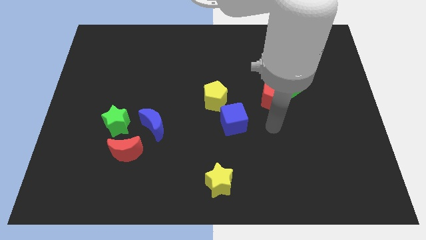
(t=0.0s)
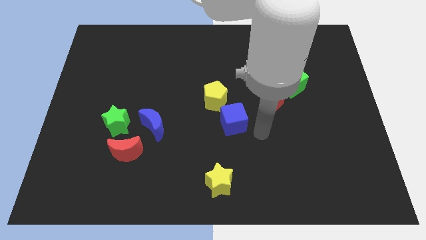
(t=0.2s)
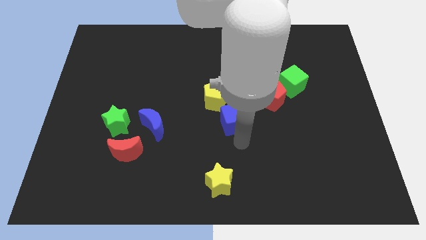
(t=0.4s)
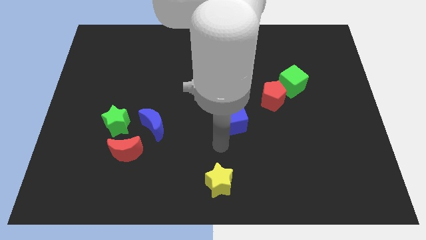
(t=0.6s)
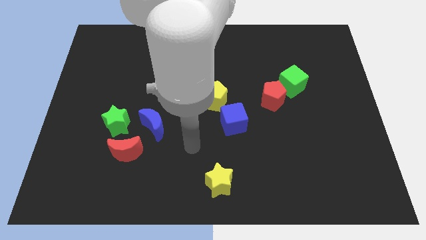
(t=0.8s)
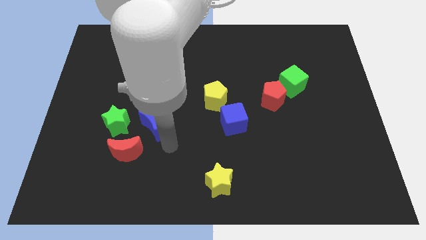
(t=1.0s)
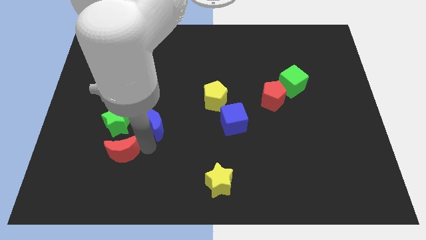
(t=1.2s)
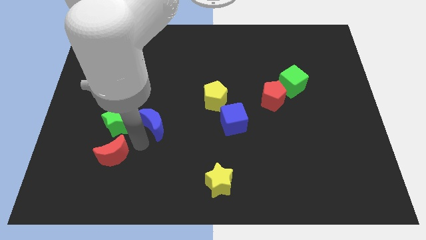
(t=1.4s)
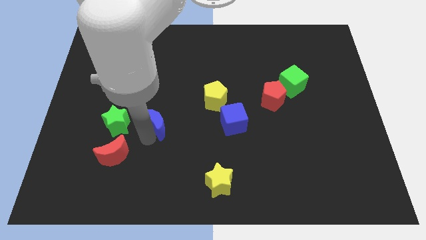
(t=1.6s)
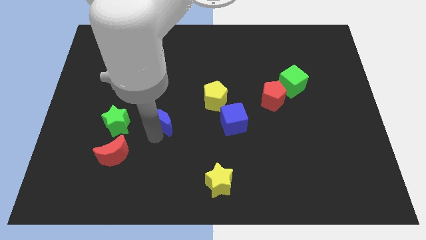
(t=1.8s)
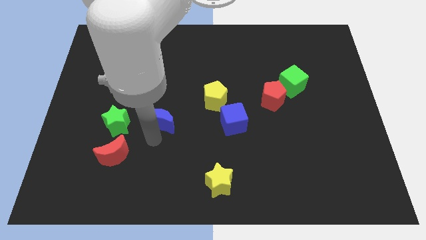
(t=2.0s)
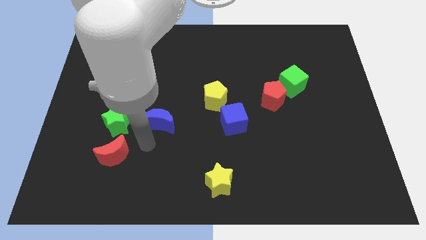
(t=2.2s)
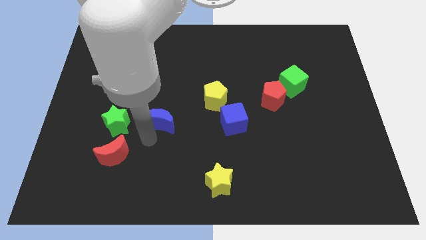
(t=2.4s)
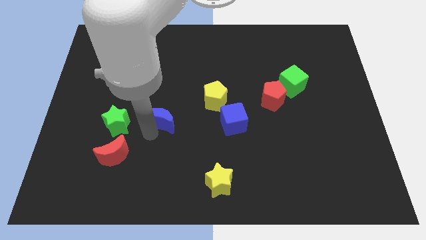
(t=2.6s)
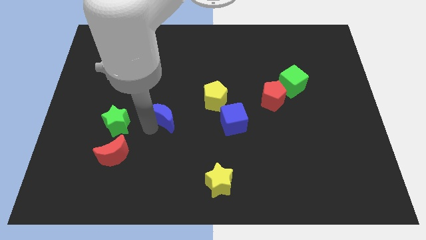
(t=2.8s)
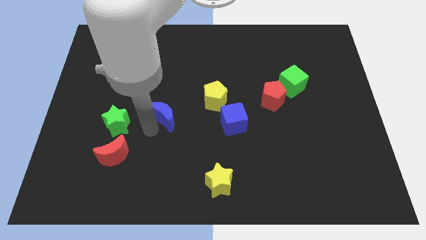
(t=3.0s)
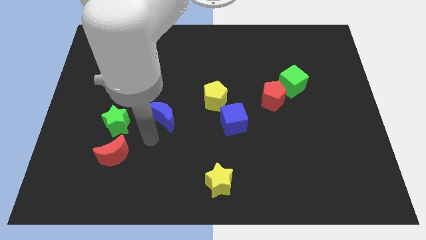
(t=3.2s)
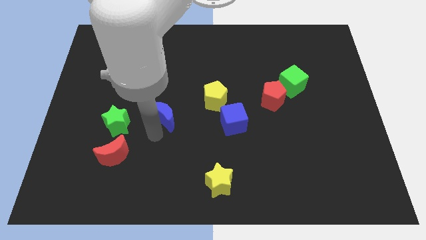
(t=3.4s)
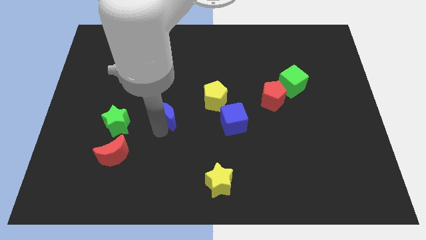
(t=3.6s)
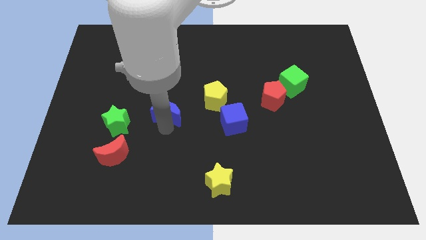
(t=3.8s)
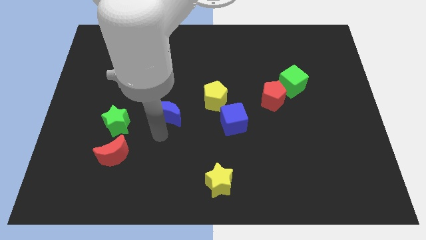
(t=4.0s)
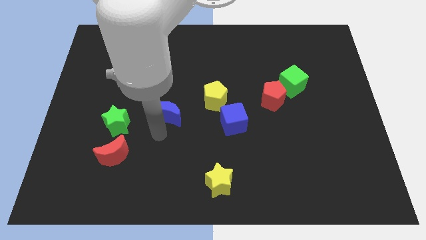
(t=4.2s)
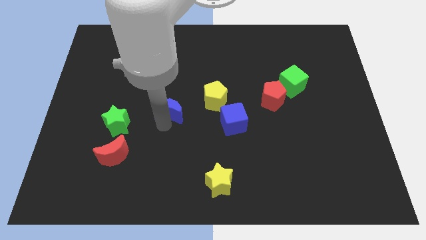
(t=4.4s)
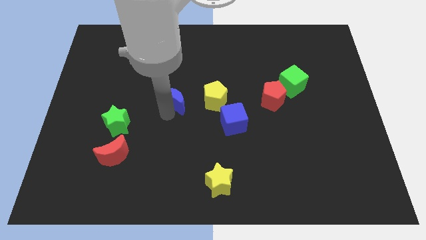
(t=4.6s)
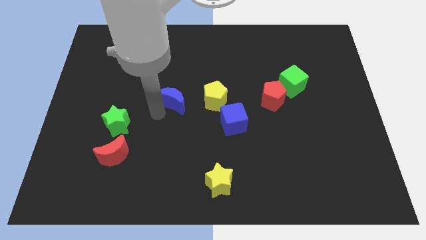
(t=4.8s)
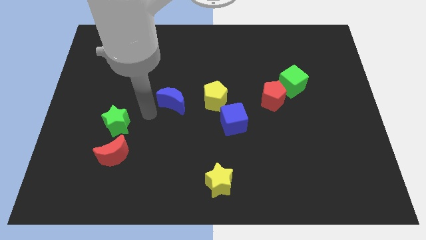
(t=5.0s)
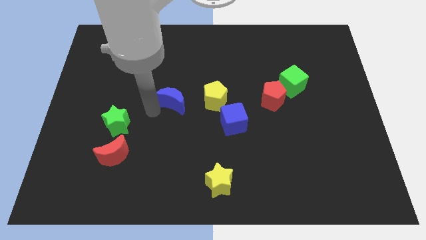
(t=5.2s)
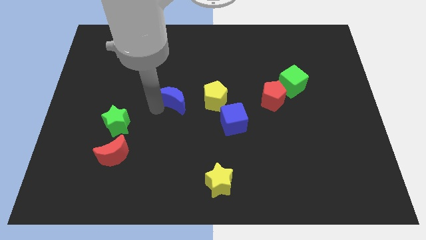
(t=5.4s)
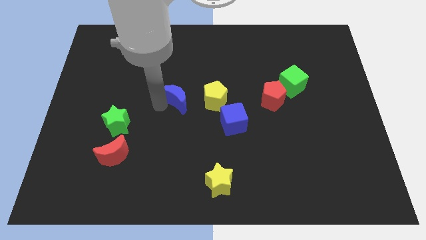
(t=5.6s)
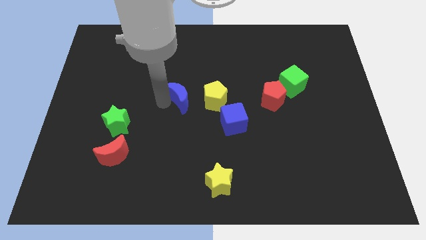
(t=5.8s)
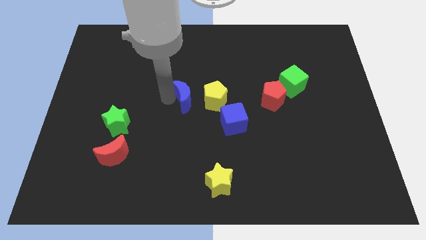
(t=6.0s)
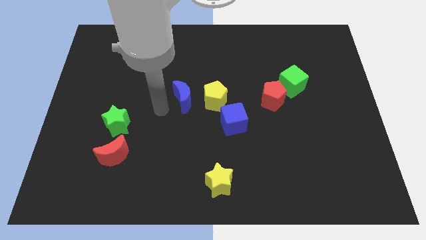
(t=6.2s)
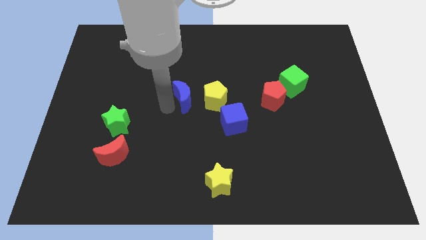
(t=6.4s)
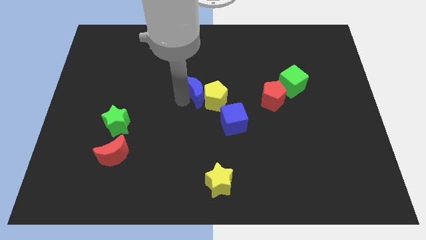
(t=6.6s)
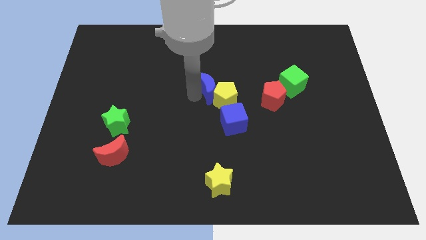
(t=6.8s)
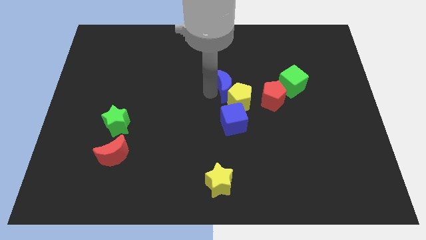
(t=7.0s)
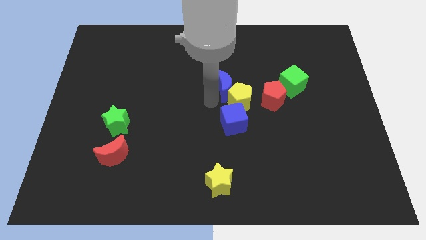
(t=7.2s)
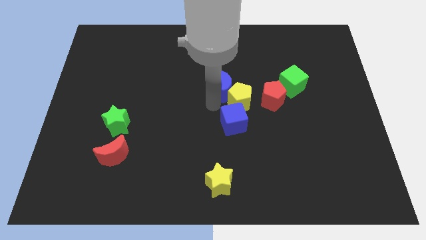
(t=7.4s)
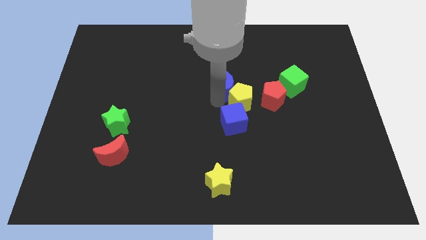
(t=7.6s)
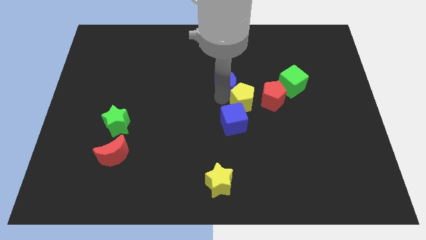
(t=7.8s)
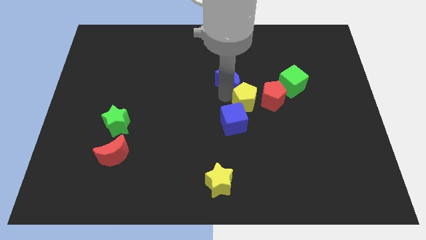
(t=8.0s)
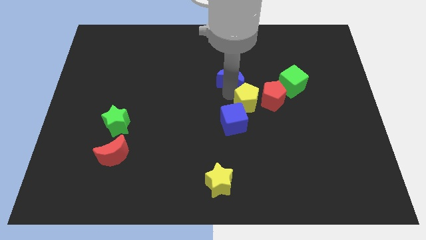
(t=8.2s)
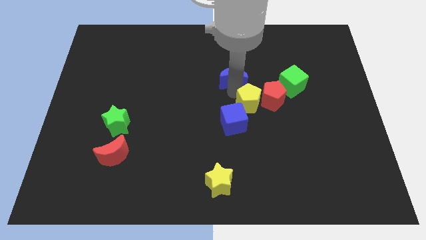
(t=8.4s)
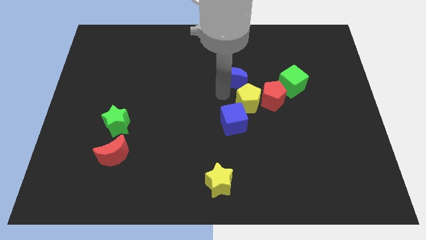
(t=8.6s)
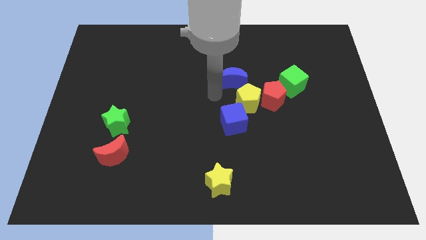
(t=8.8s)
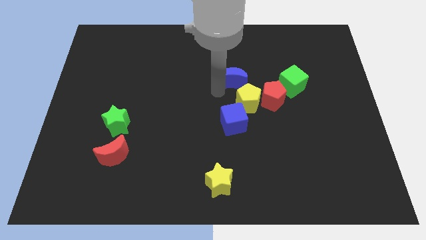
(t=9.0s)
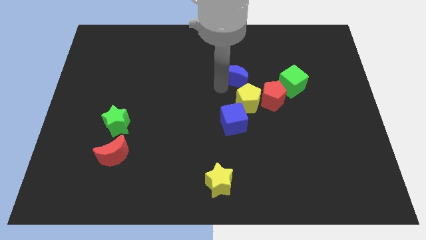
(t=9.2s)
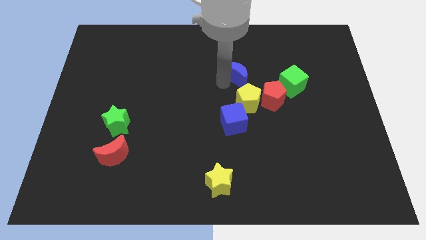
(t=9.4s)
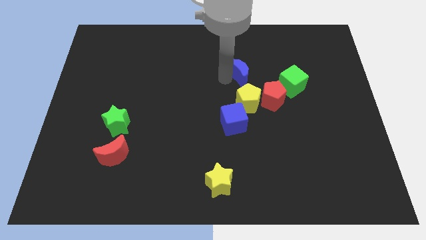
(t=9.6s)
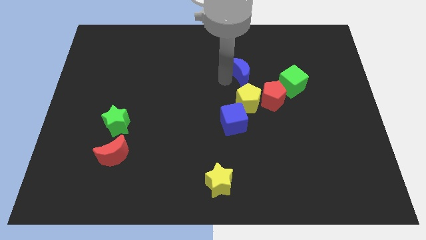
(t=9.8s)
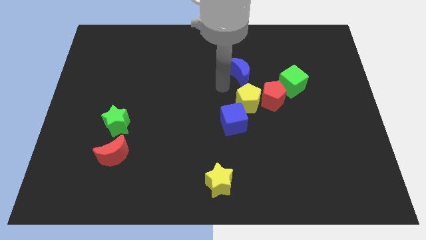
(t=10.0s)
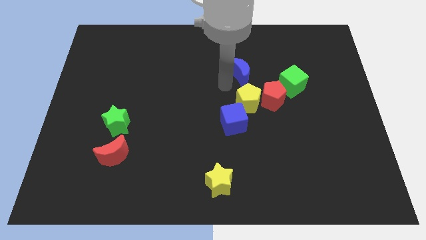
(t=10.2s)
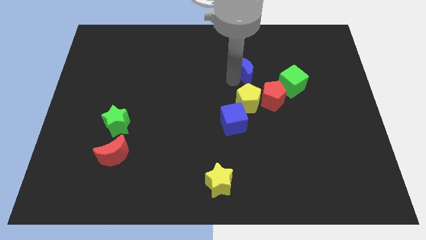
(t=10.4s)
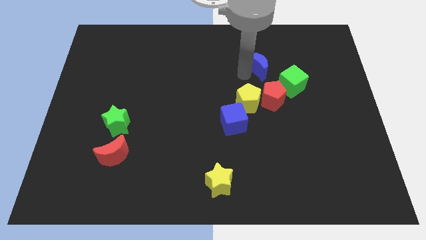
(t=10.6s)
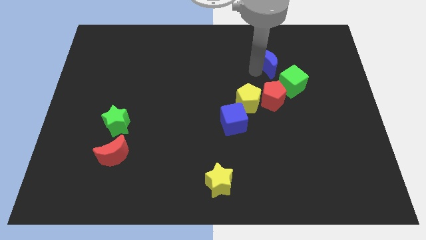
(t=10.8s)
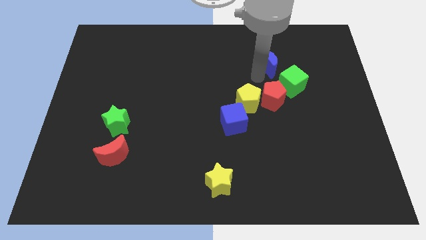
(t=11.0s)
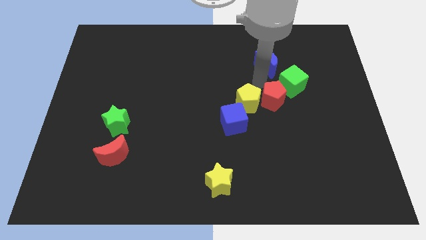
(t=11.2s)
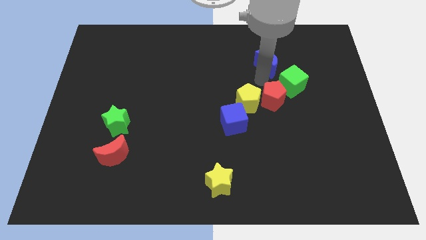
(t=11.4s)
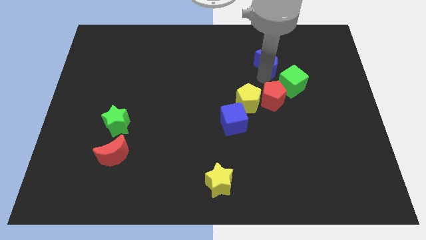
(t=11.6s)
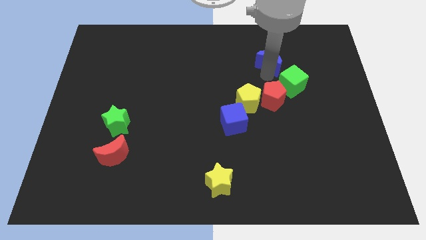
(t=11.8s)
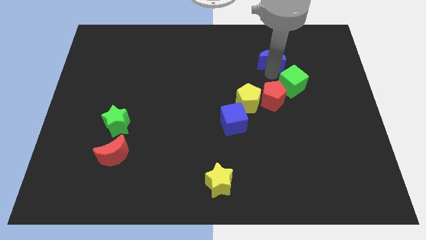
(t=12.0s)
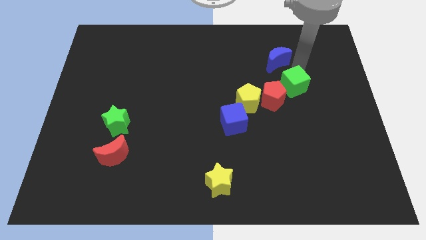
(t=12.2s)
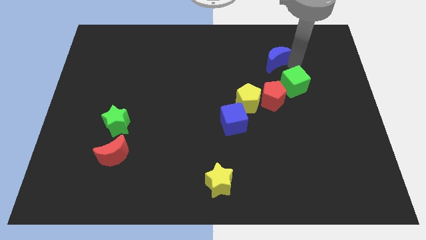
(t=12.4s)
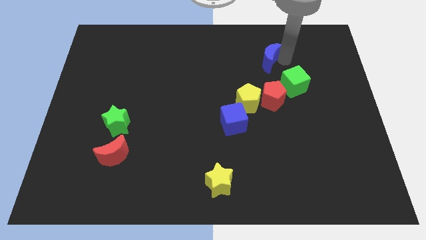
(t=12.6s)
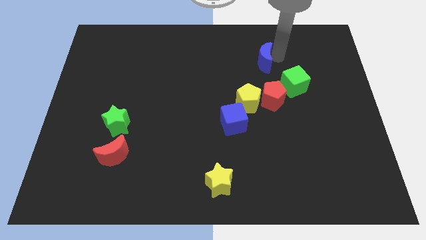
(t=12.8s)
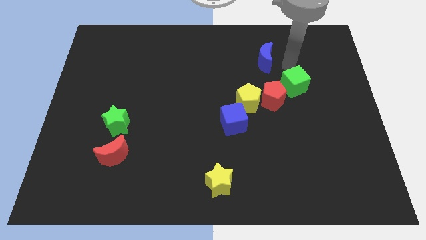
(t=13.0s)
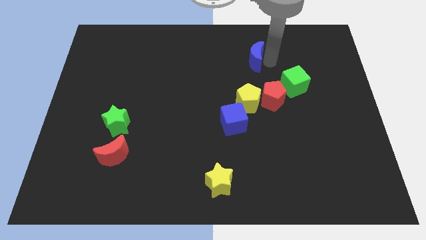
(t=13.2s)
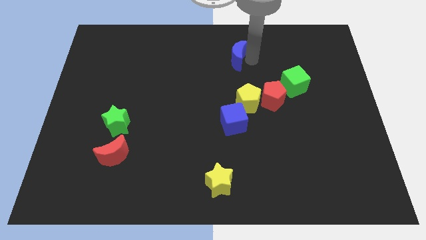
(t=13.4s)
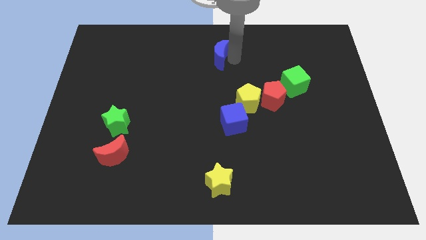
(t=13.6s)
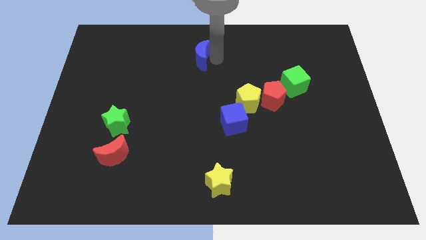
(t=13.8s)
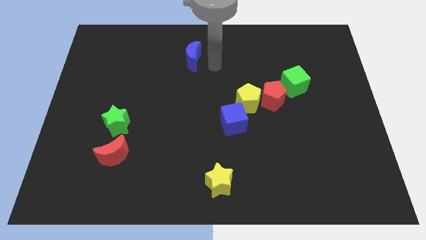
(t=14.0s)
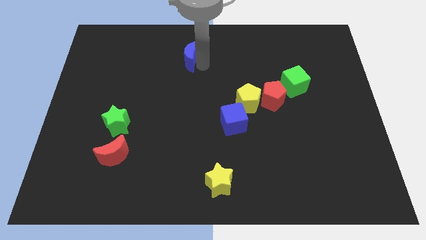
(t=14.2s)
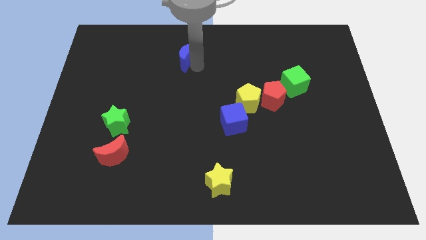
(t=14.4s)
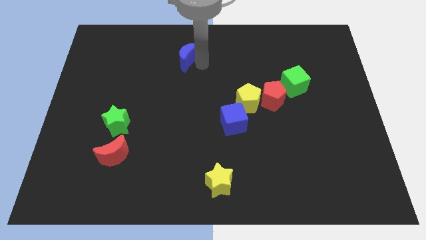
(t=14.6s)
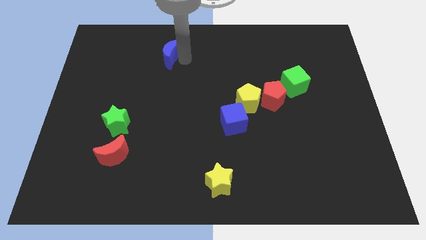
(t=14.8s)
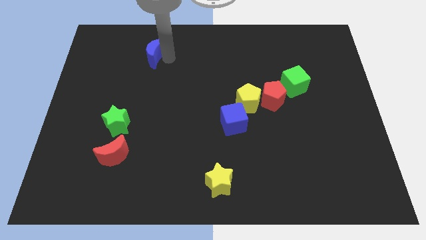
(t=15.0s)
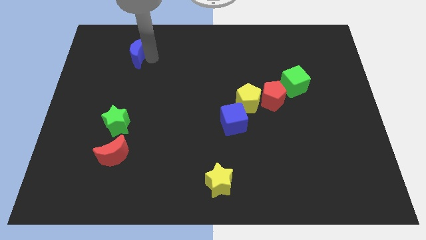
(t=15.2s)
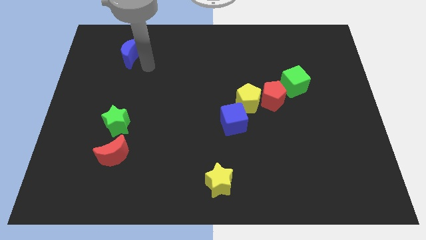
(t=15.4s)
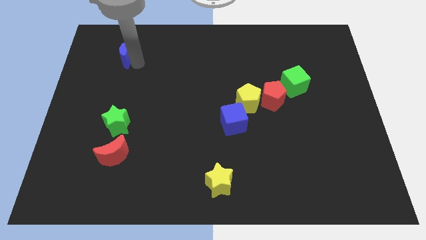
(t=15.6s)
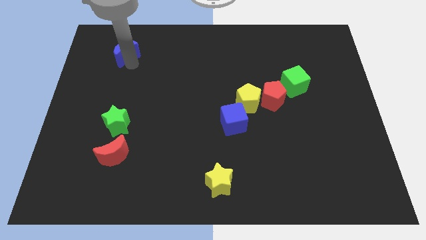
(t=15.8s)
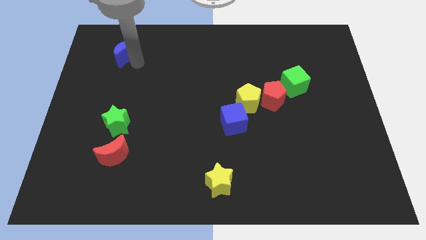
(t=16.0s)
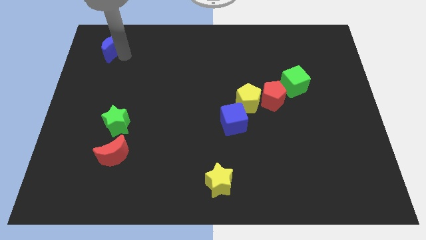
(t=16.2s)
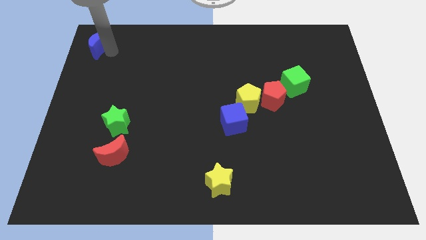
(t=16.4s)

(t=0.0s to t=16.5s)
move the blue moon to the top left of the board
